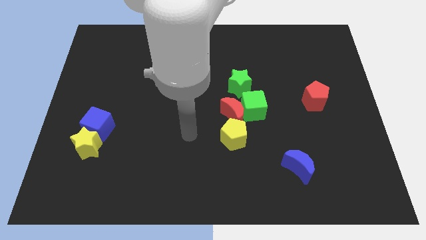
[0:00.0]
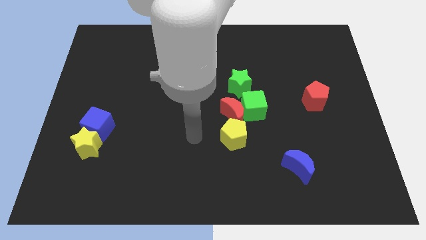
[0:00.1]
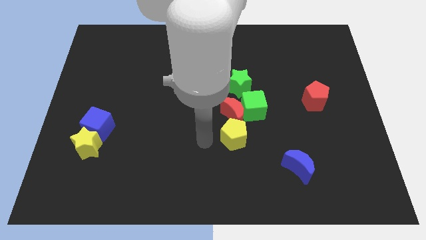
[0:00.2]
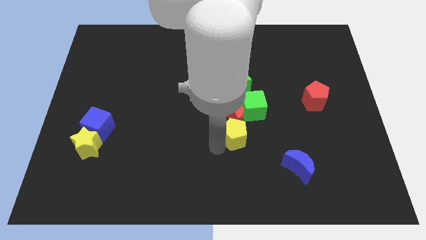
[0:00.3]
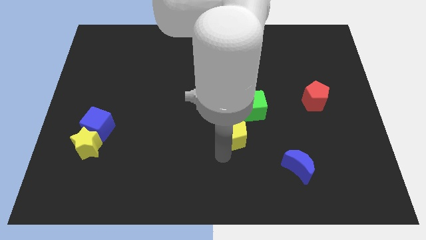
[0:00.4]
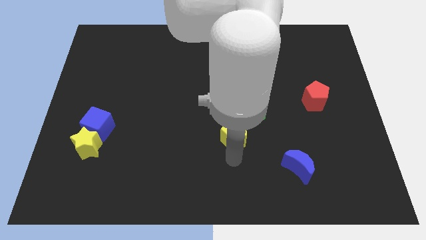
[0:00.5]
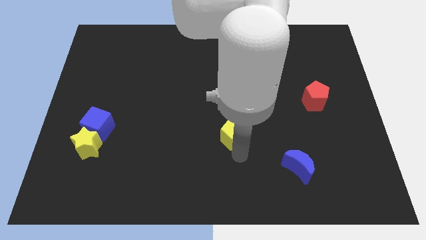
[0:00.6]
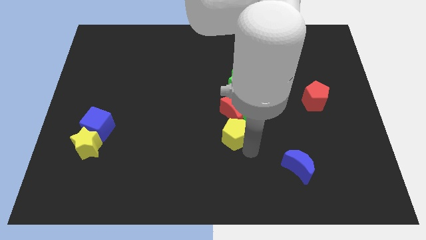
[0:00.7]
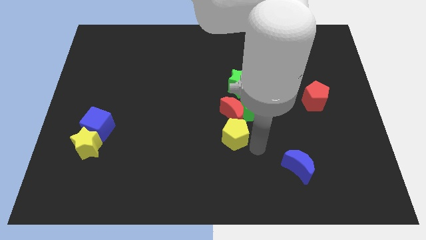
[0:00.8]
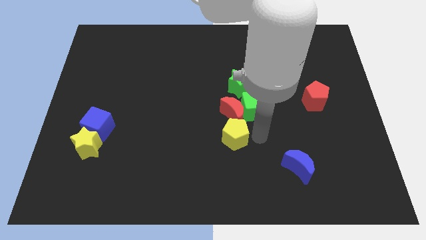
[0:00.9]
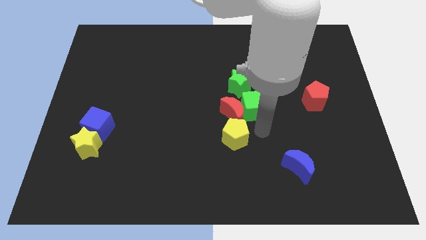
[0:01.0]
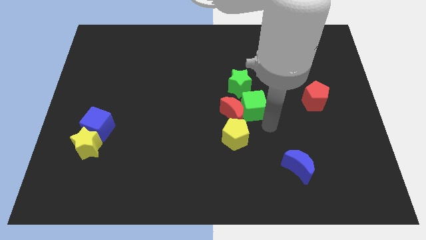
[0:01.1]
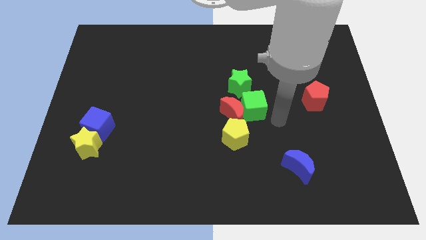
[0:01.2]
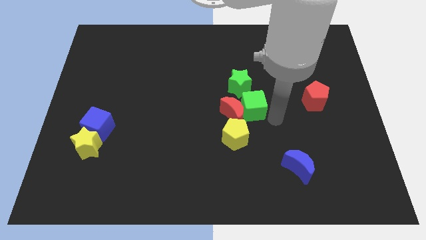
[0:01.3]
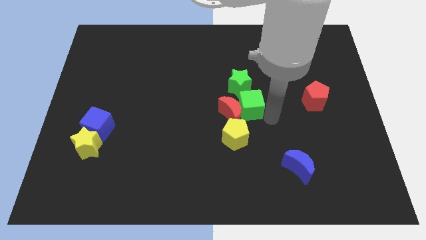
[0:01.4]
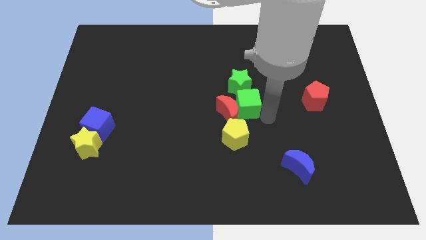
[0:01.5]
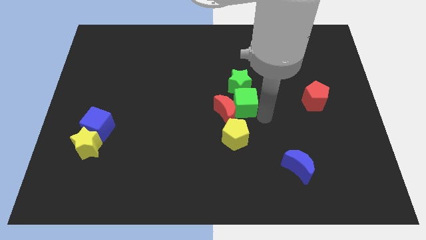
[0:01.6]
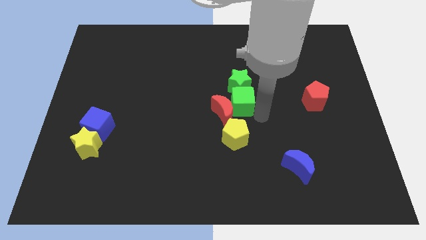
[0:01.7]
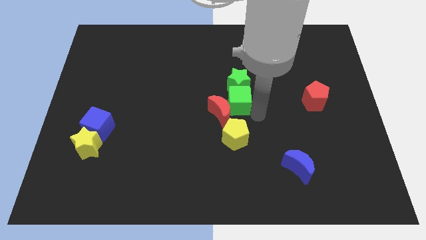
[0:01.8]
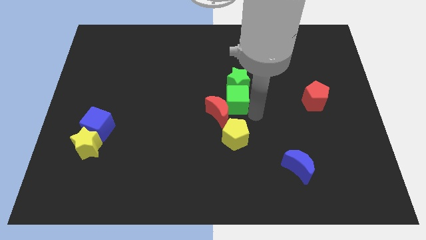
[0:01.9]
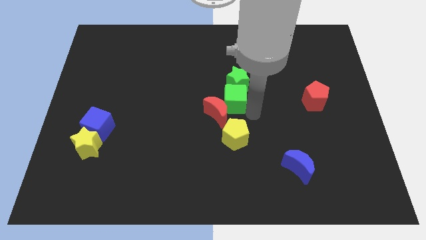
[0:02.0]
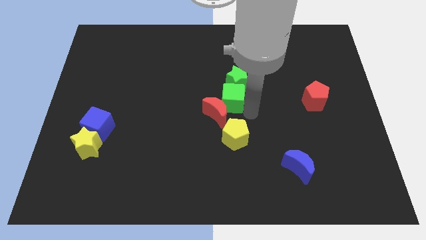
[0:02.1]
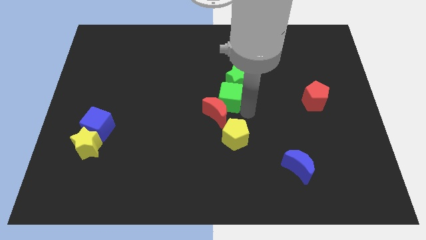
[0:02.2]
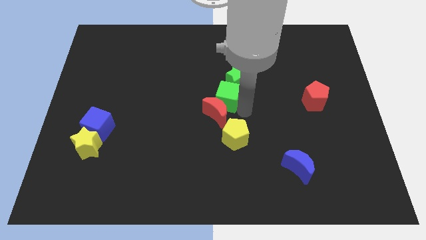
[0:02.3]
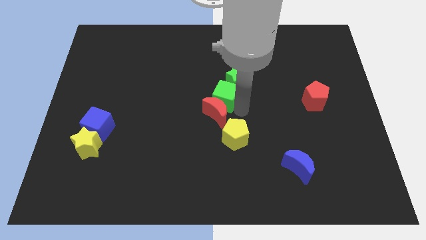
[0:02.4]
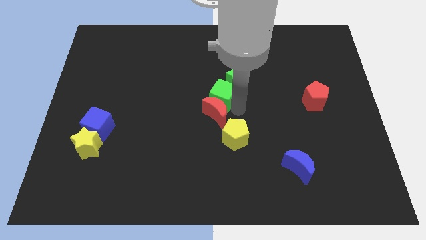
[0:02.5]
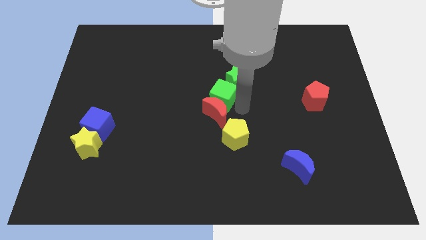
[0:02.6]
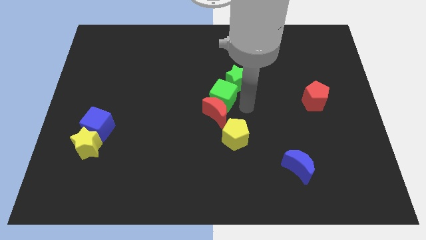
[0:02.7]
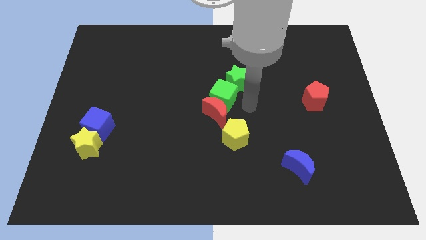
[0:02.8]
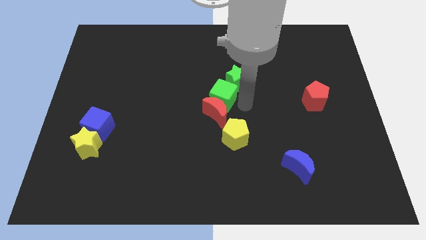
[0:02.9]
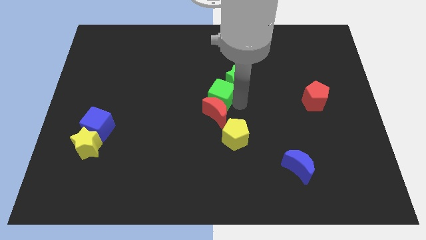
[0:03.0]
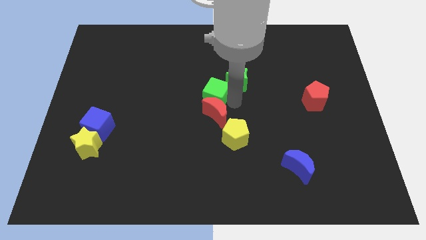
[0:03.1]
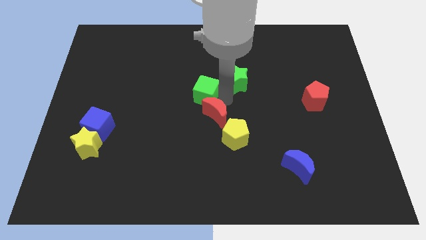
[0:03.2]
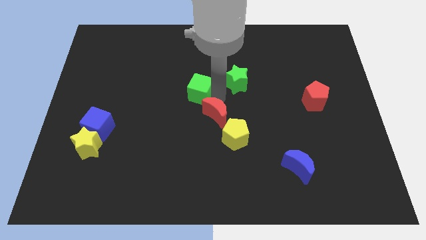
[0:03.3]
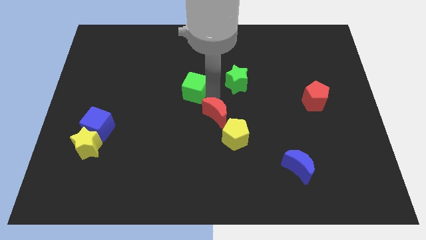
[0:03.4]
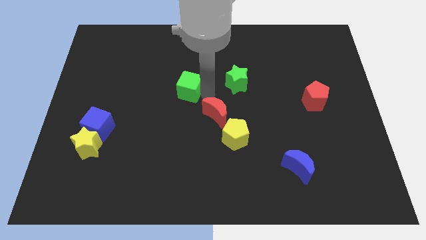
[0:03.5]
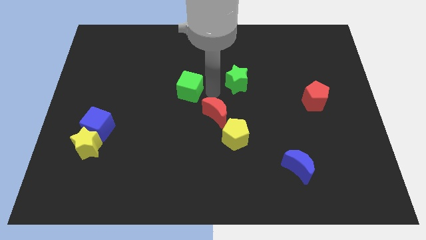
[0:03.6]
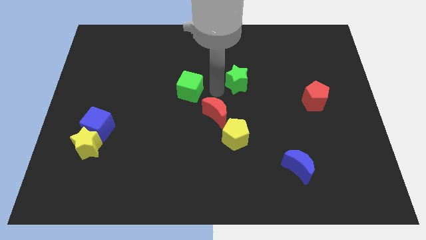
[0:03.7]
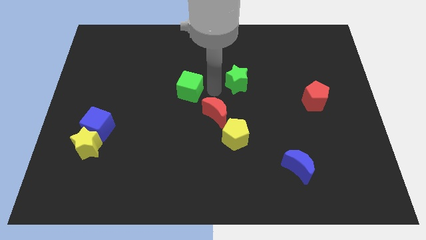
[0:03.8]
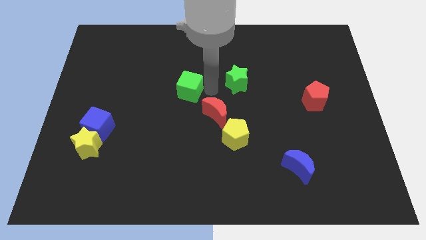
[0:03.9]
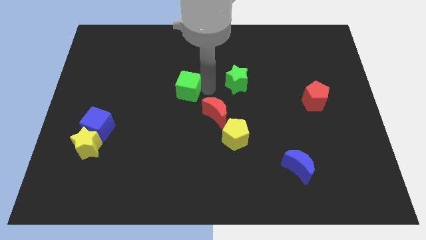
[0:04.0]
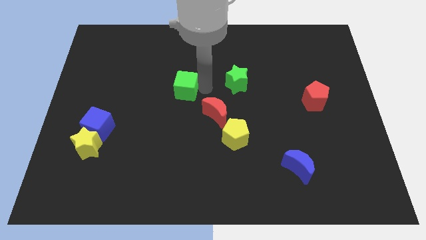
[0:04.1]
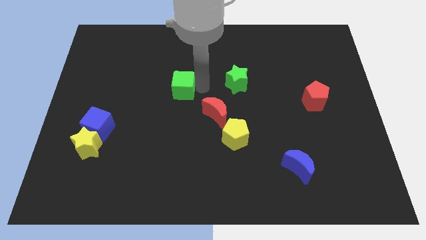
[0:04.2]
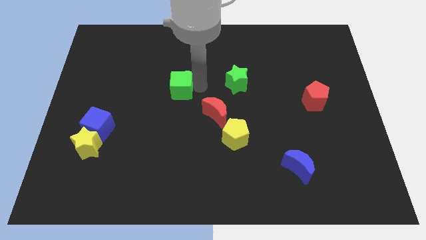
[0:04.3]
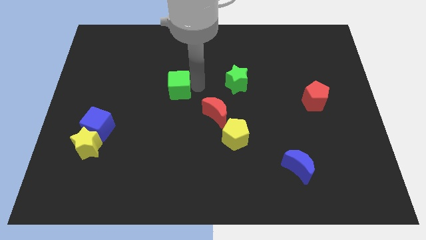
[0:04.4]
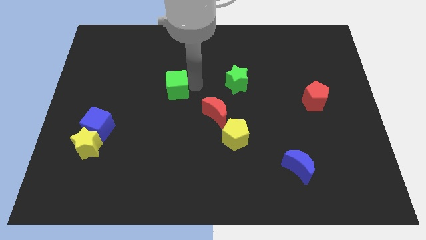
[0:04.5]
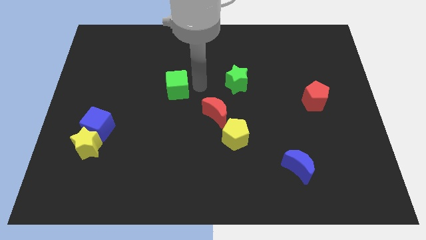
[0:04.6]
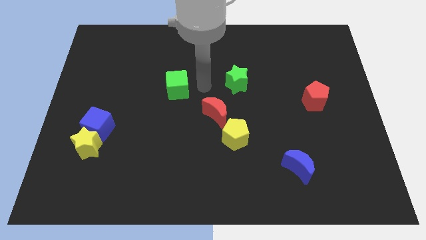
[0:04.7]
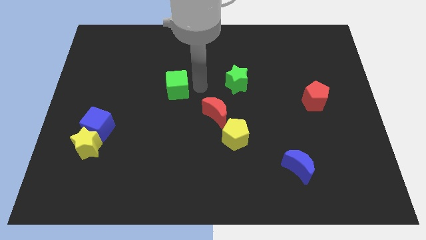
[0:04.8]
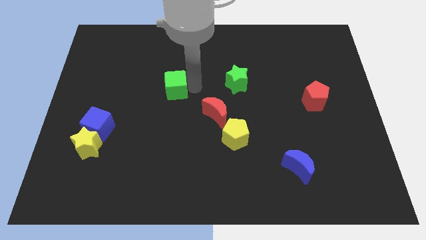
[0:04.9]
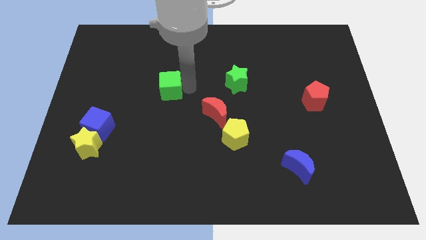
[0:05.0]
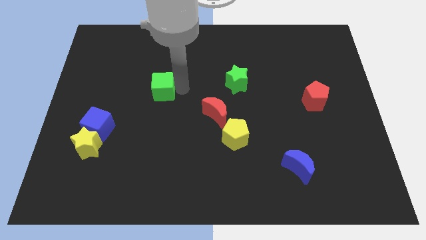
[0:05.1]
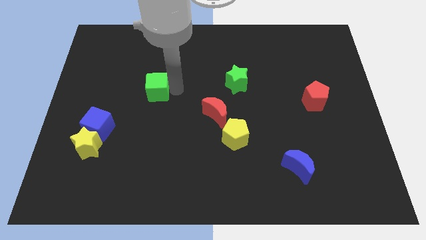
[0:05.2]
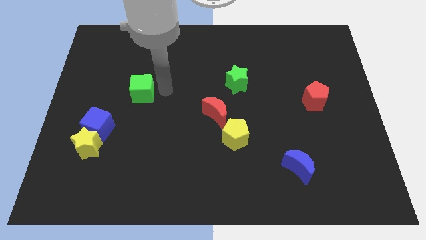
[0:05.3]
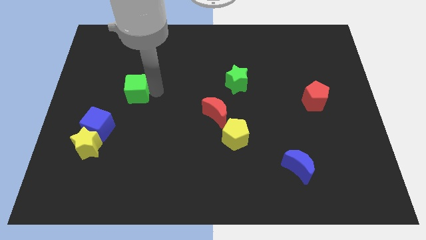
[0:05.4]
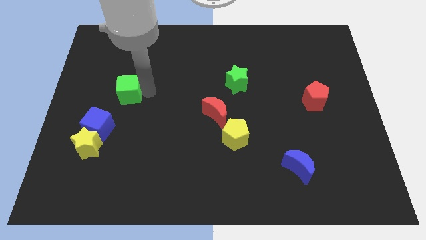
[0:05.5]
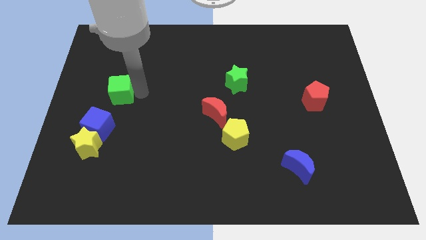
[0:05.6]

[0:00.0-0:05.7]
push the green cube to the top of the blue cube

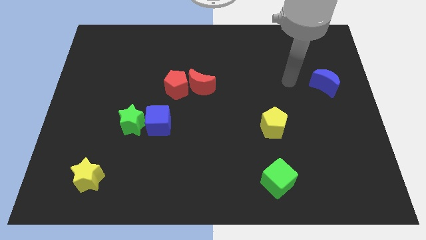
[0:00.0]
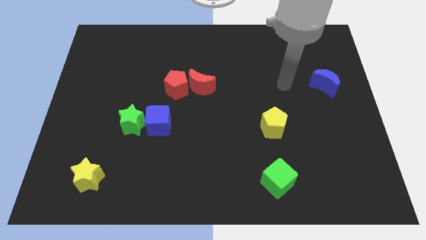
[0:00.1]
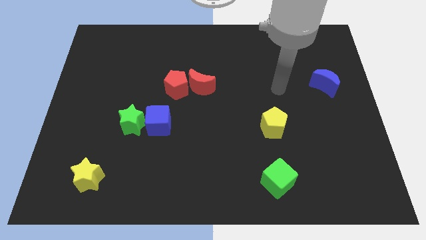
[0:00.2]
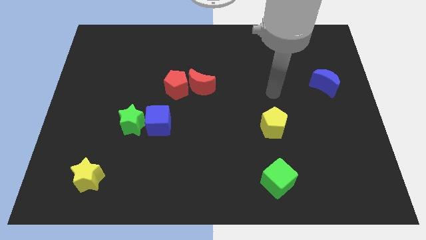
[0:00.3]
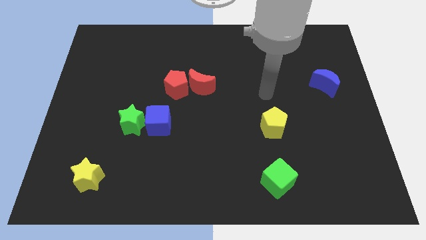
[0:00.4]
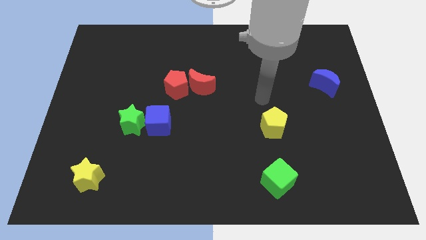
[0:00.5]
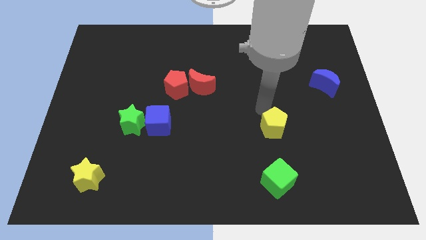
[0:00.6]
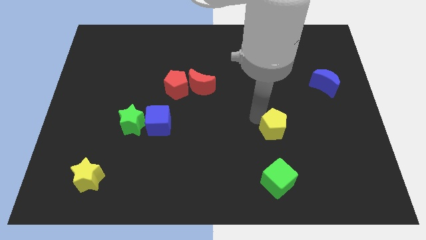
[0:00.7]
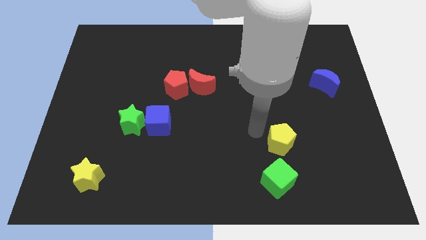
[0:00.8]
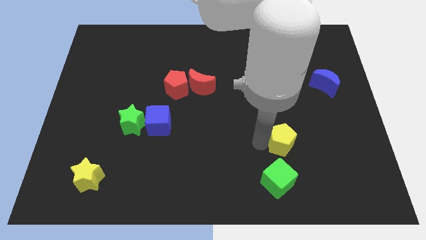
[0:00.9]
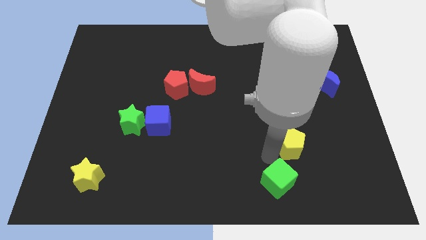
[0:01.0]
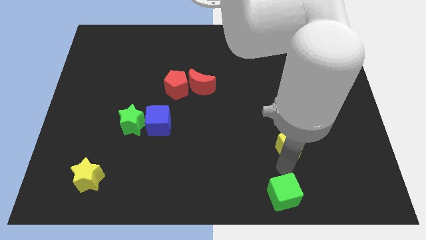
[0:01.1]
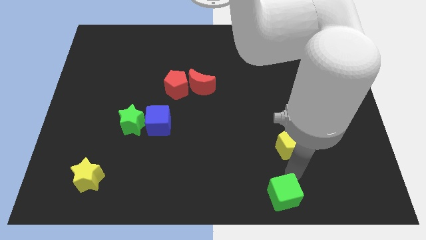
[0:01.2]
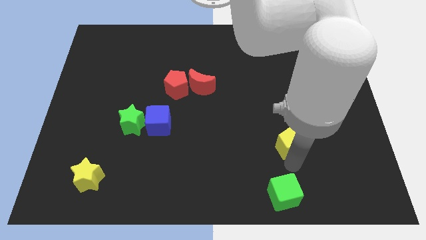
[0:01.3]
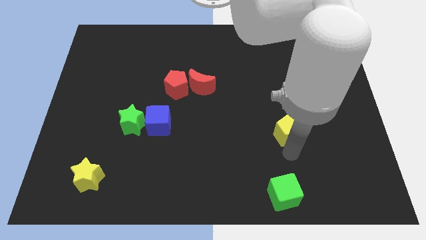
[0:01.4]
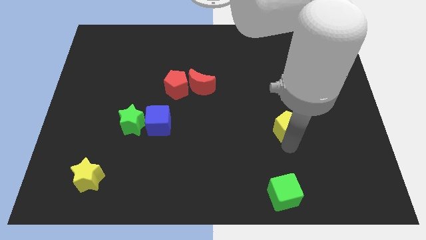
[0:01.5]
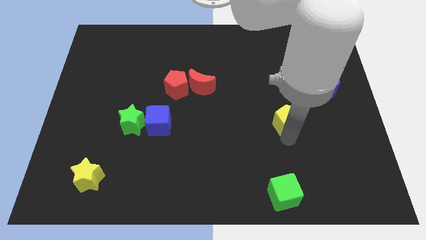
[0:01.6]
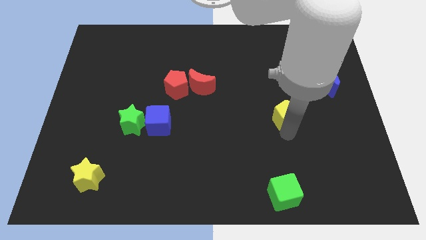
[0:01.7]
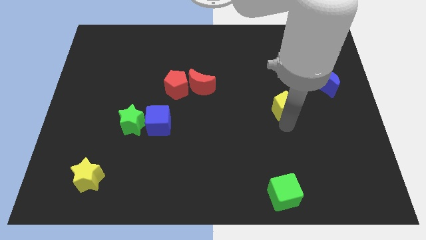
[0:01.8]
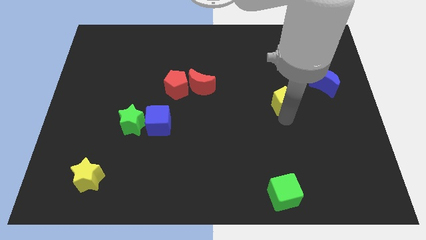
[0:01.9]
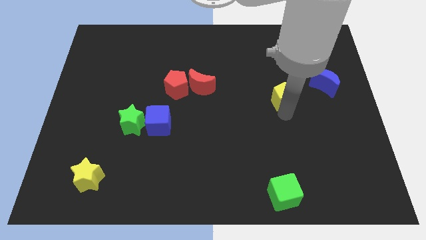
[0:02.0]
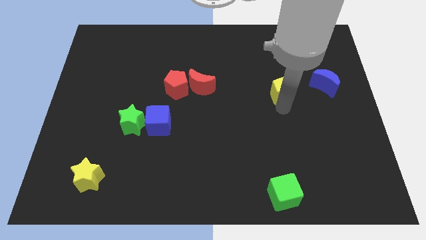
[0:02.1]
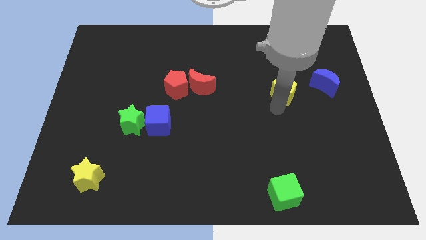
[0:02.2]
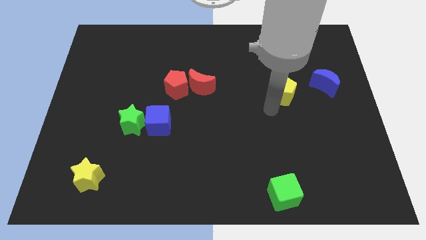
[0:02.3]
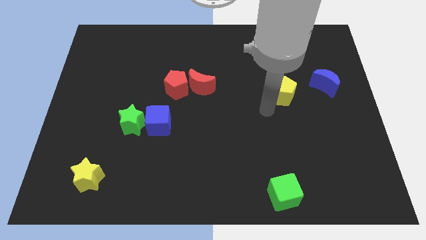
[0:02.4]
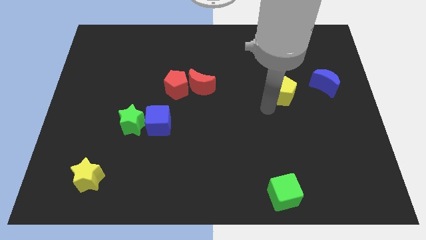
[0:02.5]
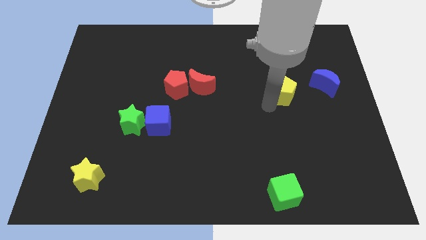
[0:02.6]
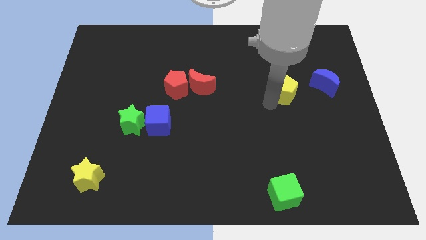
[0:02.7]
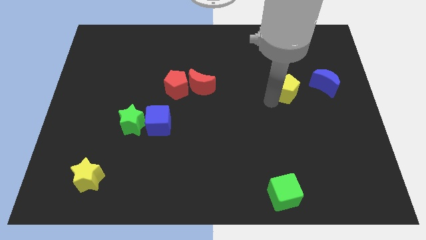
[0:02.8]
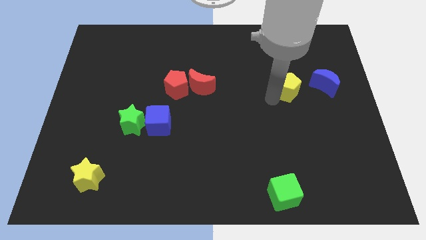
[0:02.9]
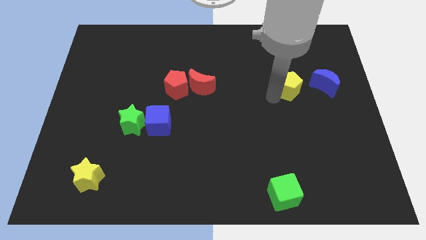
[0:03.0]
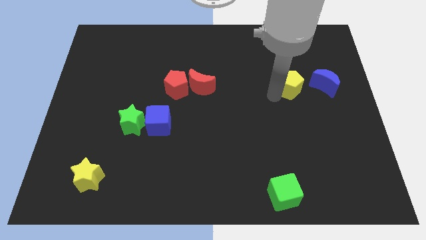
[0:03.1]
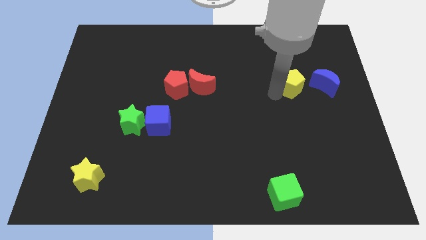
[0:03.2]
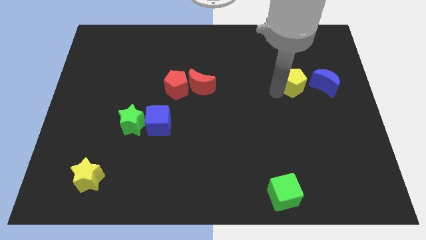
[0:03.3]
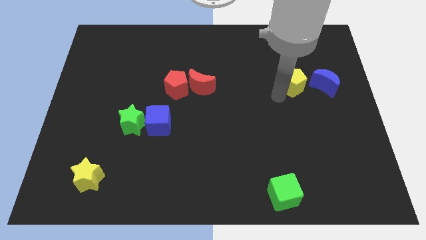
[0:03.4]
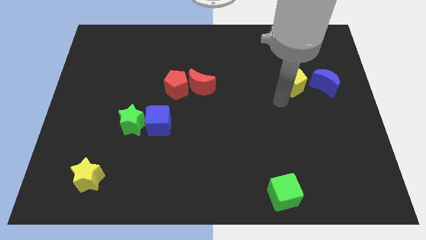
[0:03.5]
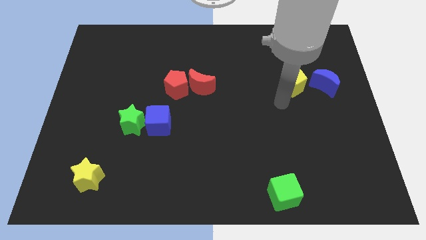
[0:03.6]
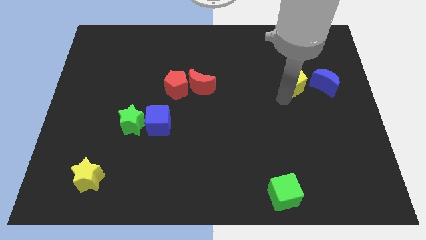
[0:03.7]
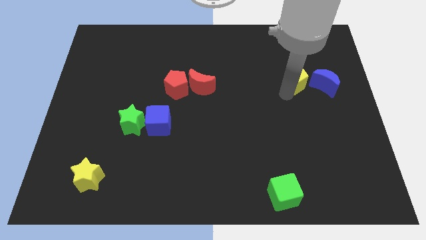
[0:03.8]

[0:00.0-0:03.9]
move the yellow pentagon diagonally up and to the left of the blue moon
